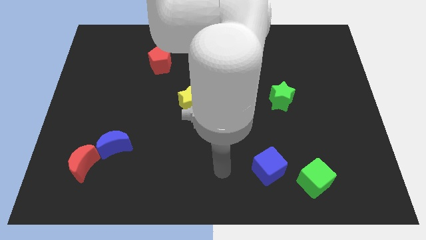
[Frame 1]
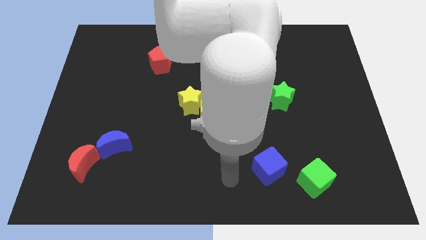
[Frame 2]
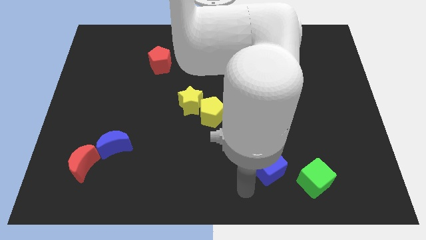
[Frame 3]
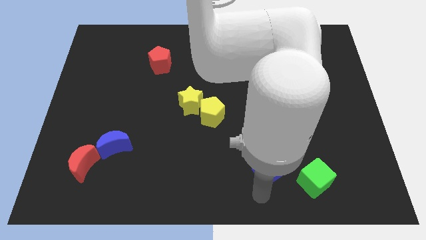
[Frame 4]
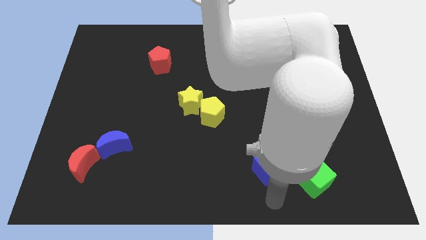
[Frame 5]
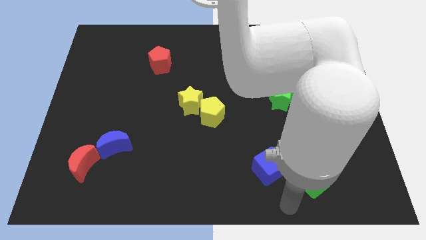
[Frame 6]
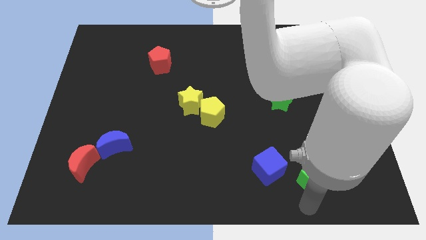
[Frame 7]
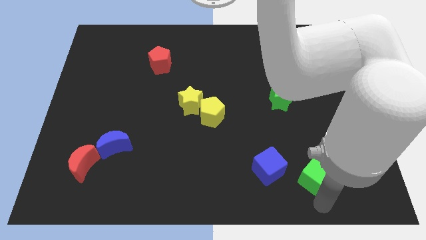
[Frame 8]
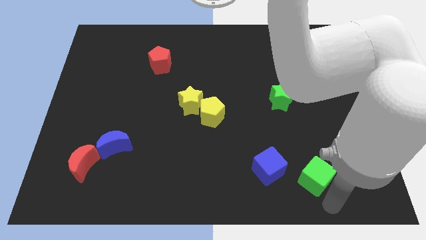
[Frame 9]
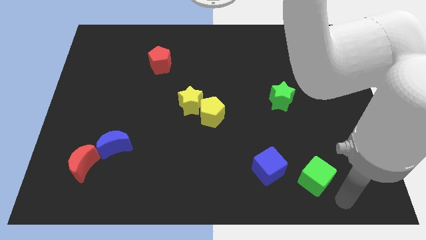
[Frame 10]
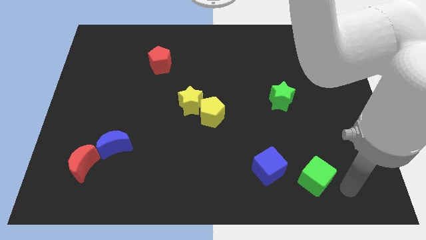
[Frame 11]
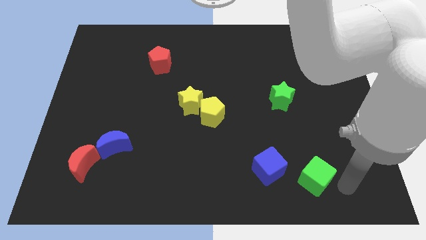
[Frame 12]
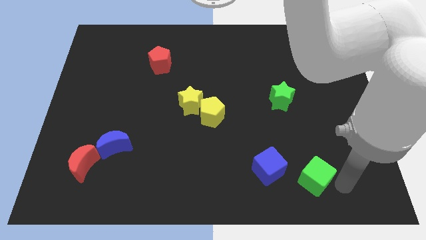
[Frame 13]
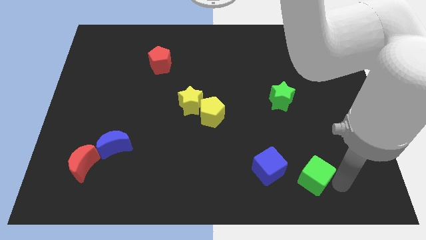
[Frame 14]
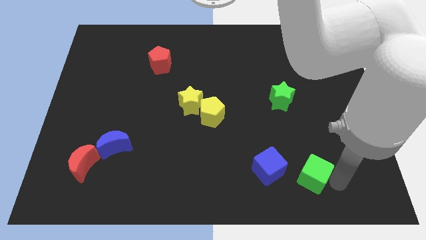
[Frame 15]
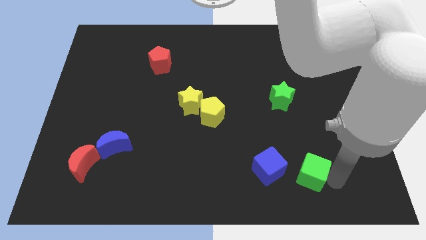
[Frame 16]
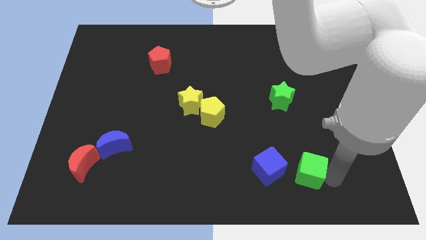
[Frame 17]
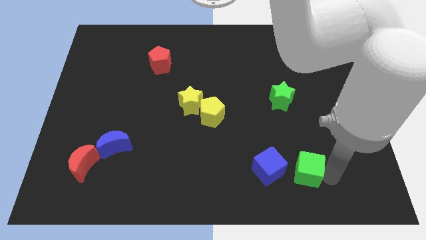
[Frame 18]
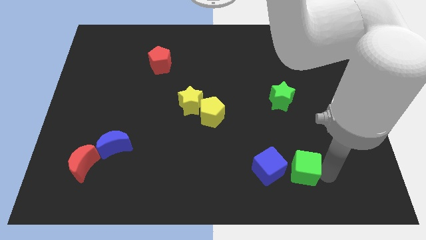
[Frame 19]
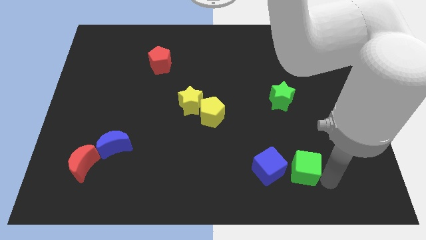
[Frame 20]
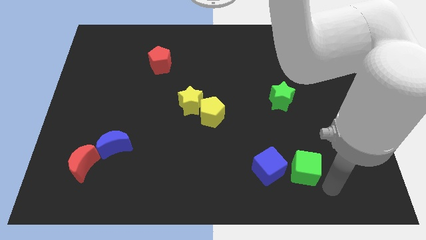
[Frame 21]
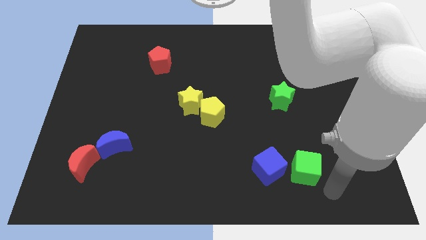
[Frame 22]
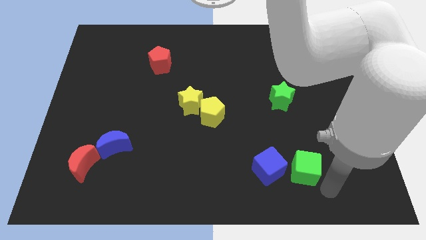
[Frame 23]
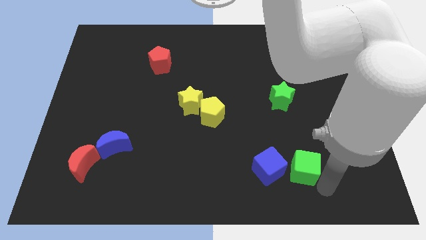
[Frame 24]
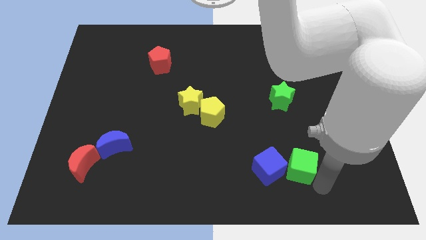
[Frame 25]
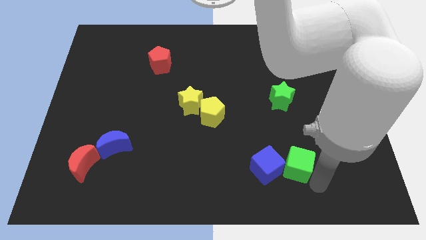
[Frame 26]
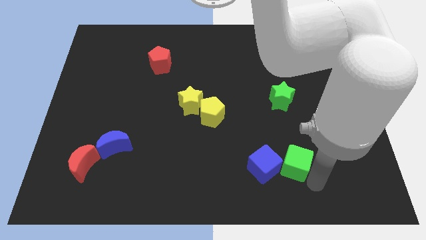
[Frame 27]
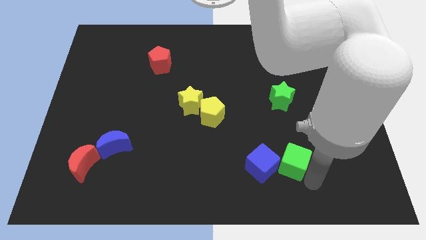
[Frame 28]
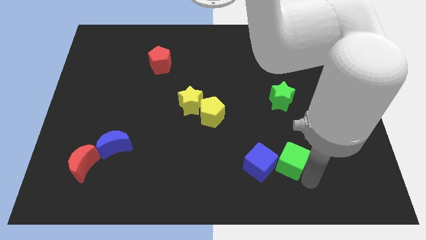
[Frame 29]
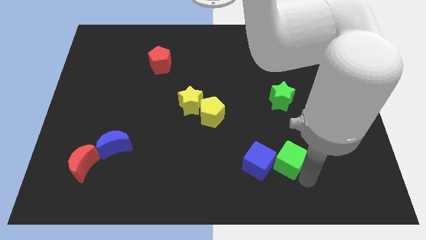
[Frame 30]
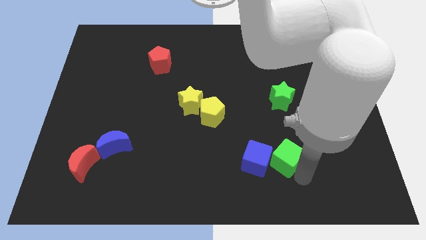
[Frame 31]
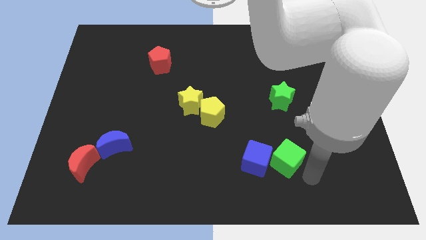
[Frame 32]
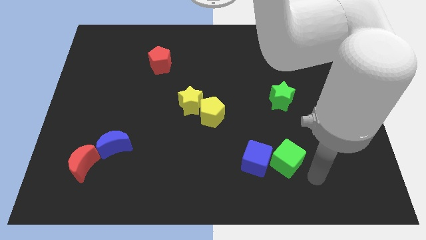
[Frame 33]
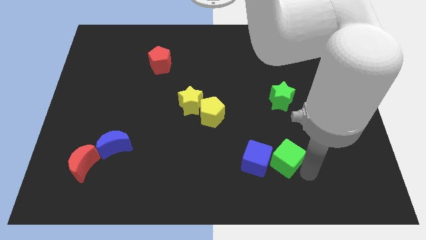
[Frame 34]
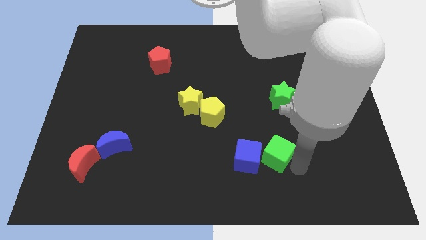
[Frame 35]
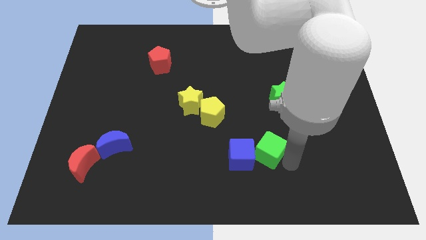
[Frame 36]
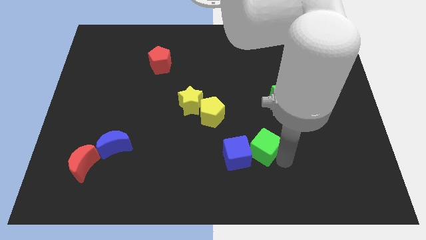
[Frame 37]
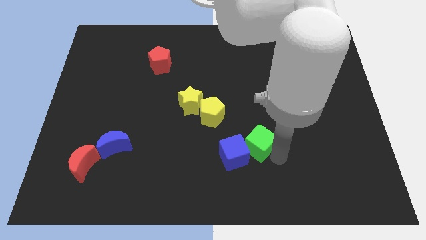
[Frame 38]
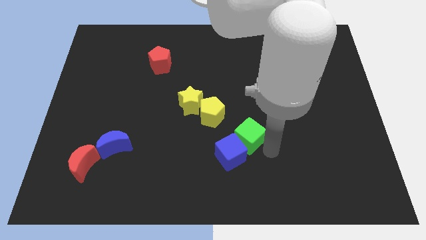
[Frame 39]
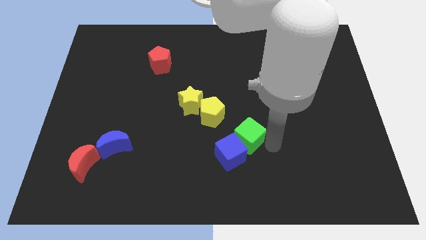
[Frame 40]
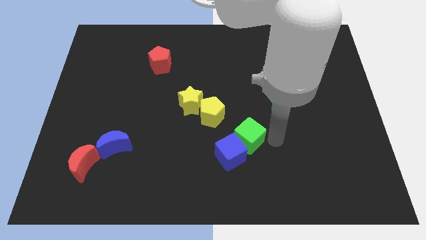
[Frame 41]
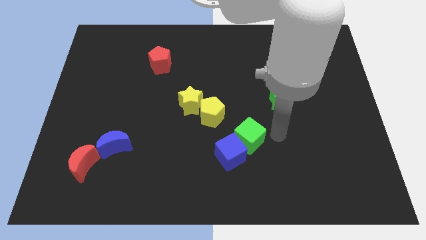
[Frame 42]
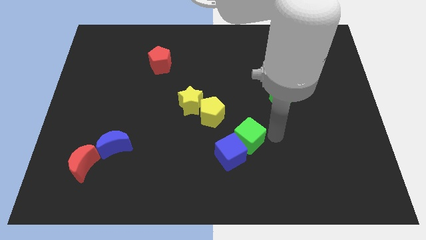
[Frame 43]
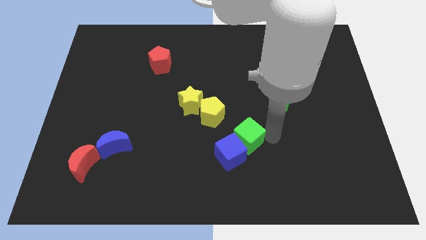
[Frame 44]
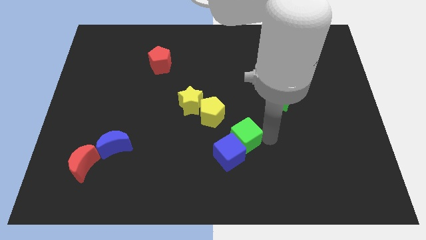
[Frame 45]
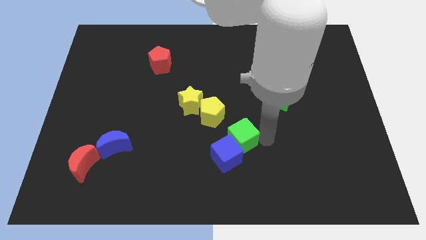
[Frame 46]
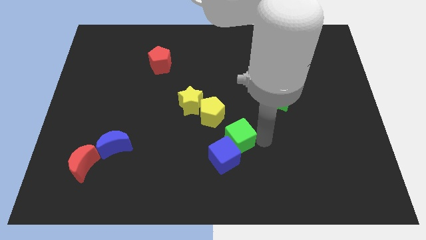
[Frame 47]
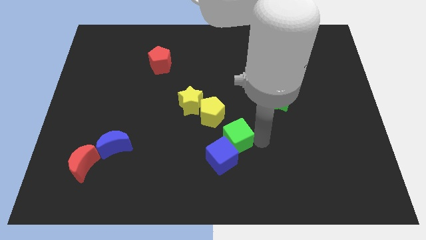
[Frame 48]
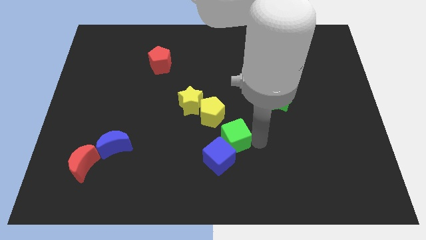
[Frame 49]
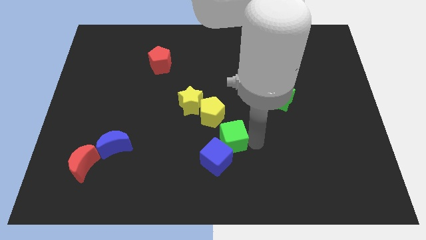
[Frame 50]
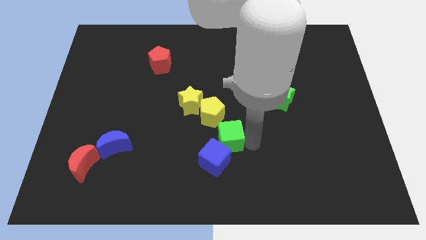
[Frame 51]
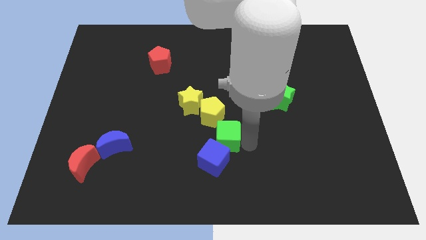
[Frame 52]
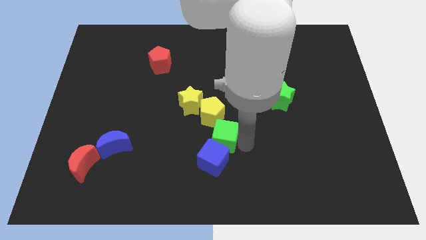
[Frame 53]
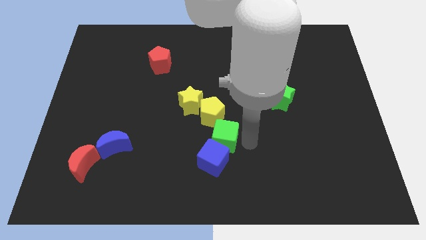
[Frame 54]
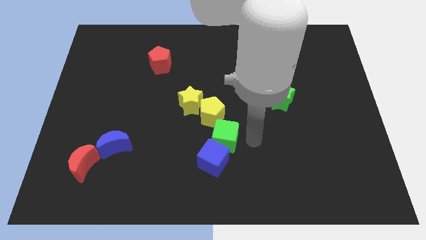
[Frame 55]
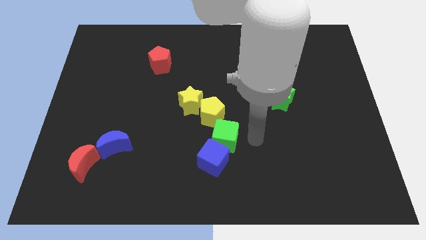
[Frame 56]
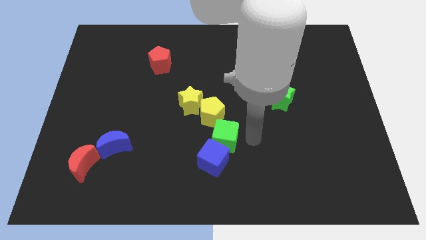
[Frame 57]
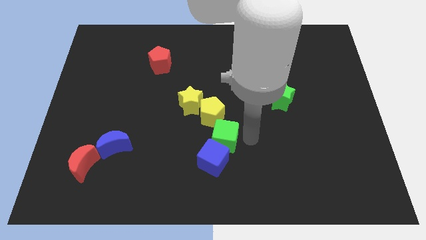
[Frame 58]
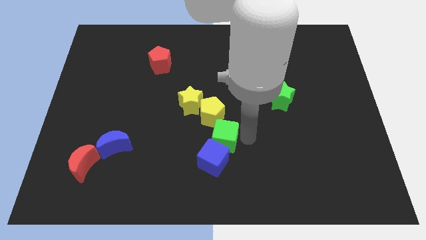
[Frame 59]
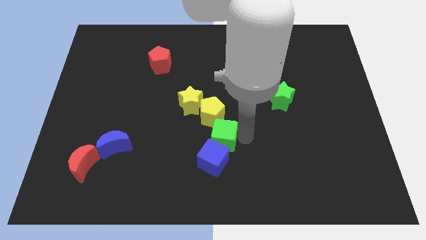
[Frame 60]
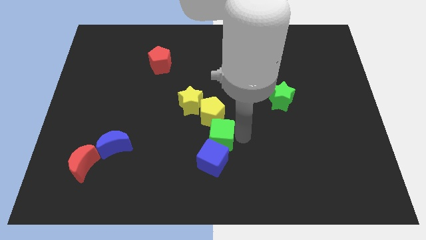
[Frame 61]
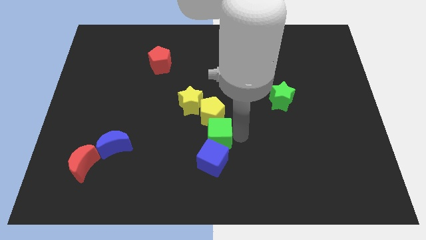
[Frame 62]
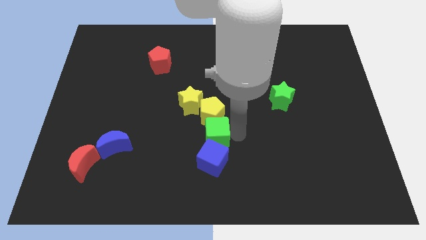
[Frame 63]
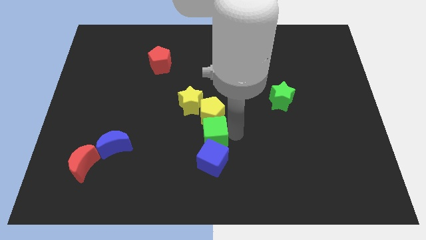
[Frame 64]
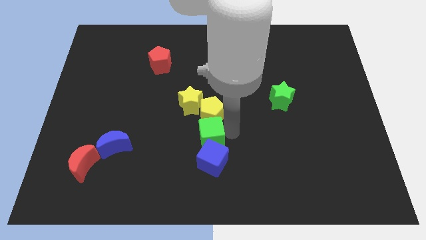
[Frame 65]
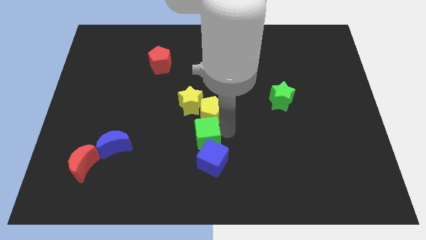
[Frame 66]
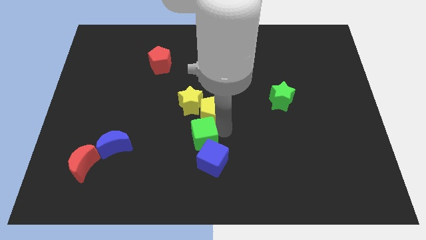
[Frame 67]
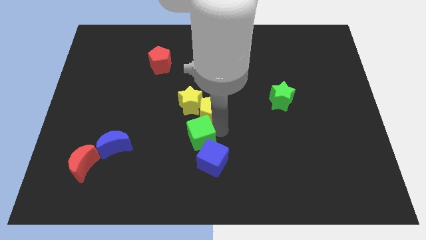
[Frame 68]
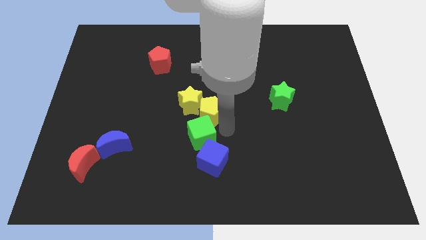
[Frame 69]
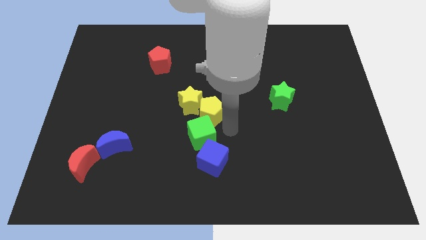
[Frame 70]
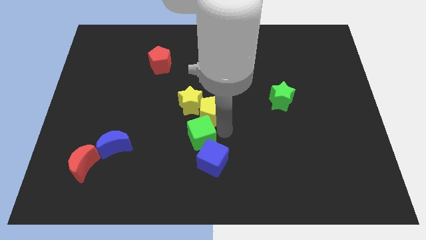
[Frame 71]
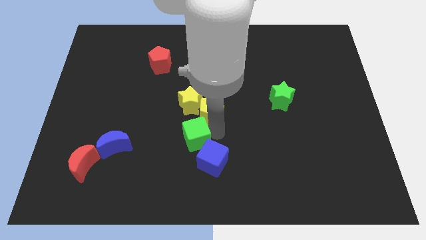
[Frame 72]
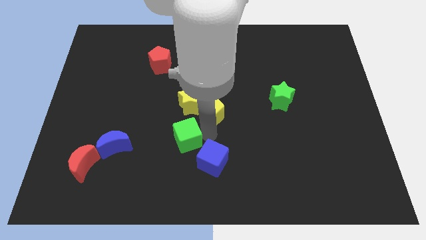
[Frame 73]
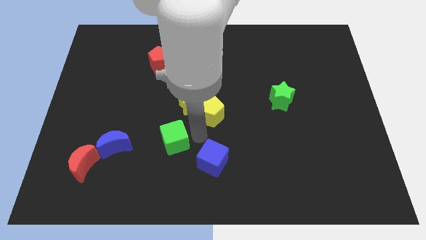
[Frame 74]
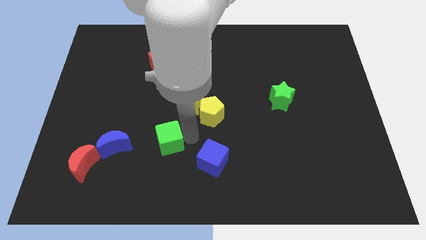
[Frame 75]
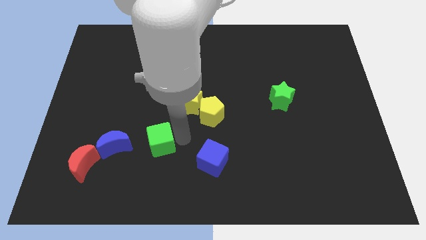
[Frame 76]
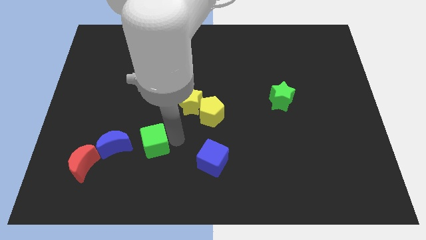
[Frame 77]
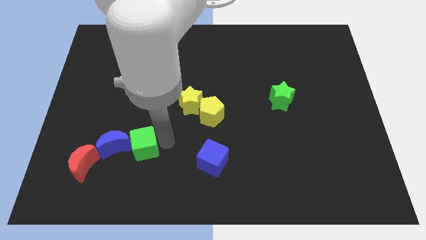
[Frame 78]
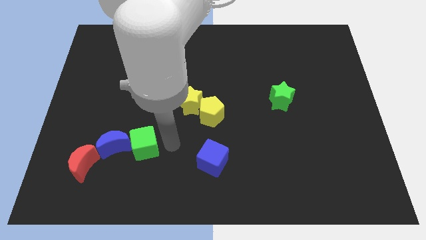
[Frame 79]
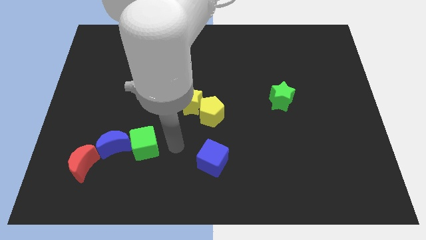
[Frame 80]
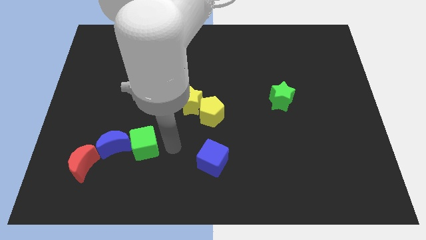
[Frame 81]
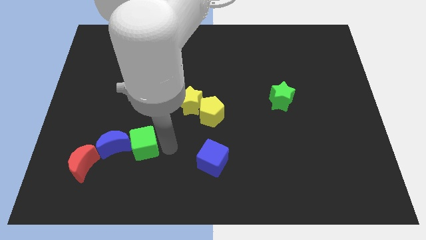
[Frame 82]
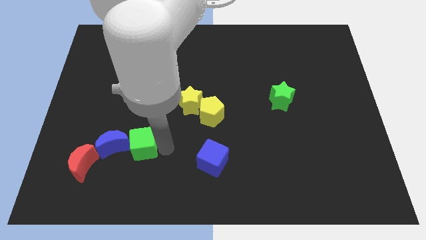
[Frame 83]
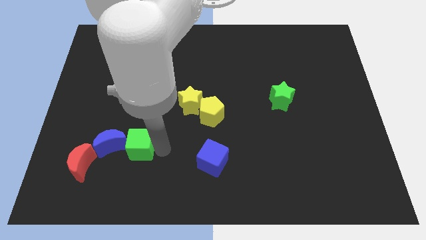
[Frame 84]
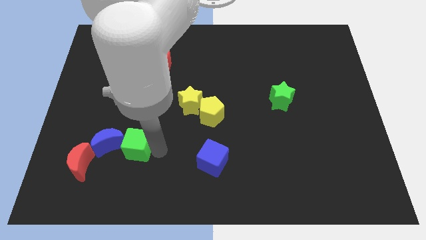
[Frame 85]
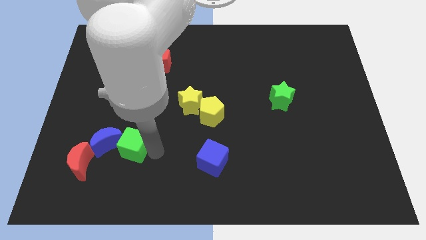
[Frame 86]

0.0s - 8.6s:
slide the green cube to the blue moon
